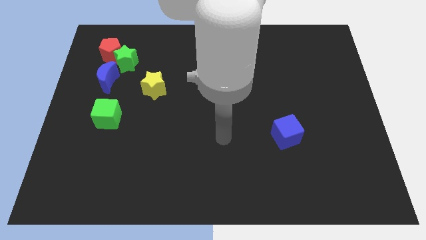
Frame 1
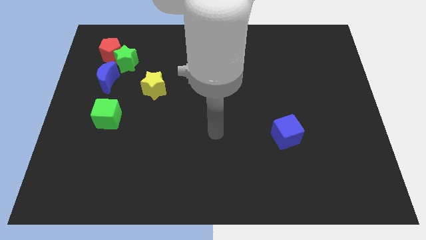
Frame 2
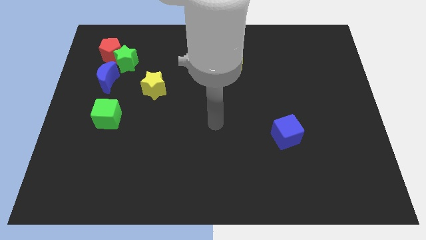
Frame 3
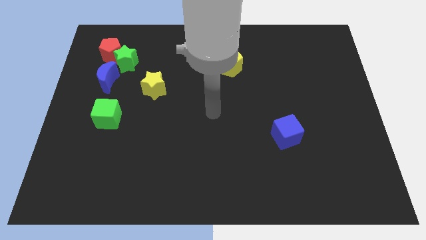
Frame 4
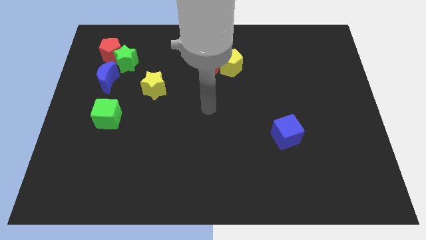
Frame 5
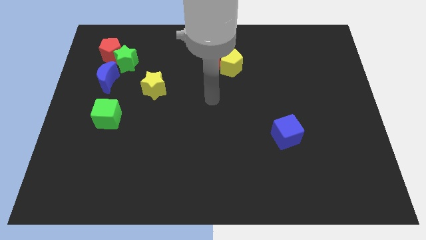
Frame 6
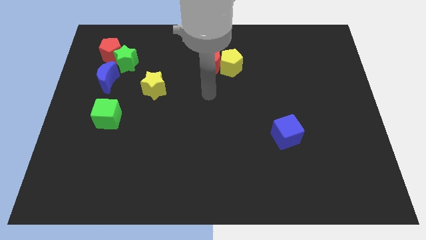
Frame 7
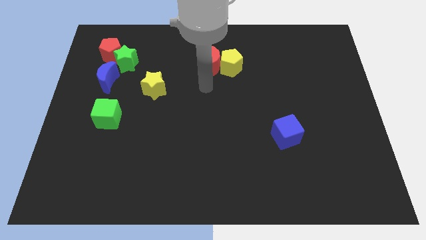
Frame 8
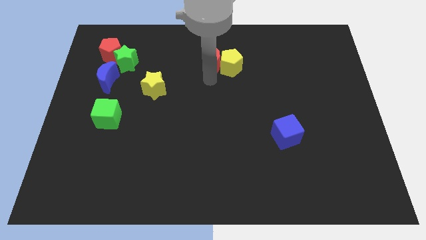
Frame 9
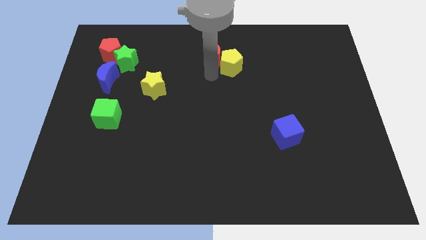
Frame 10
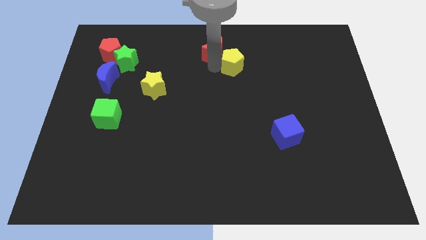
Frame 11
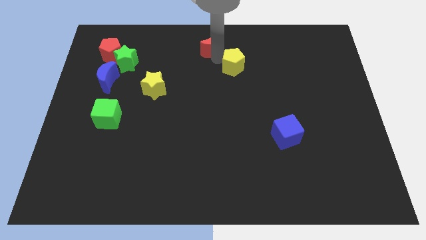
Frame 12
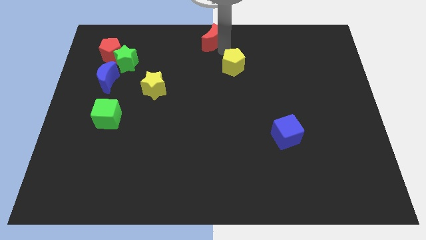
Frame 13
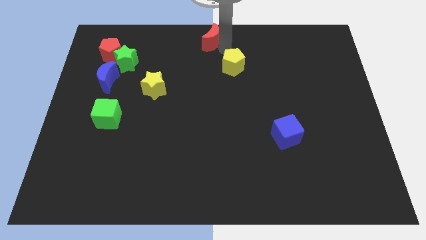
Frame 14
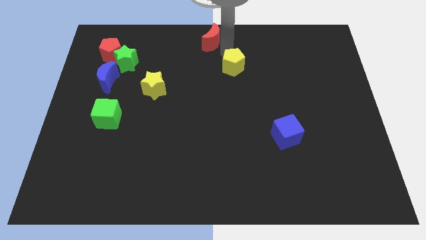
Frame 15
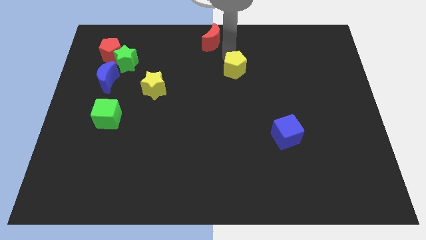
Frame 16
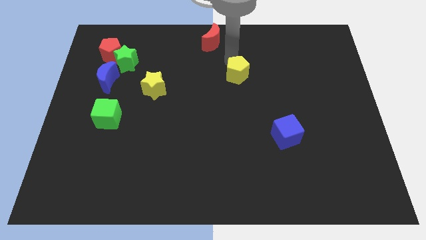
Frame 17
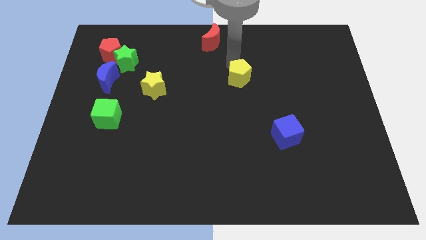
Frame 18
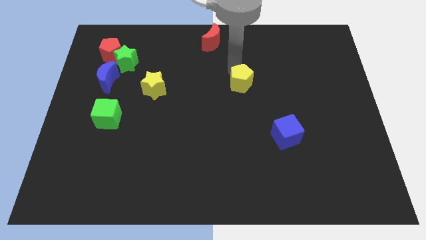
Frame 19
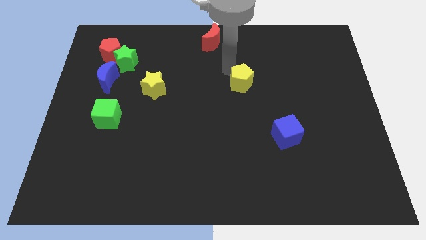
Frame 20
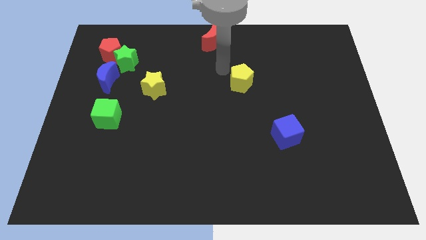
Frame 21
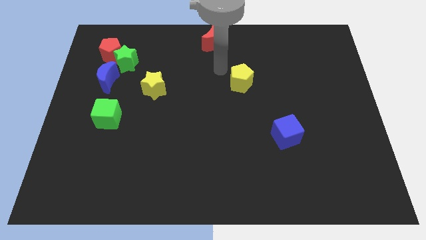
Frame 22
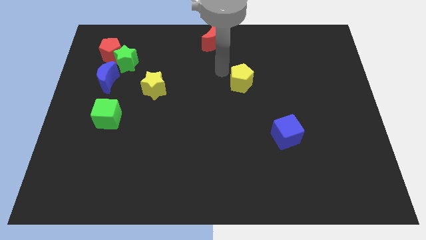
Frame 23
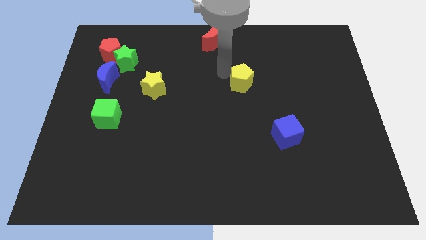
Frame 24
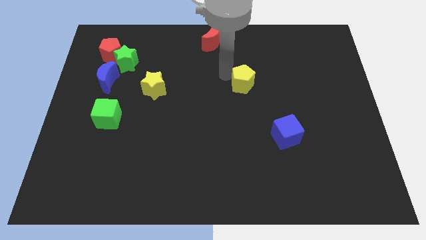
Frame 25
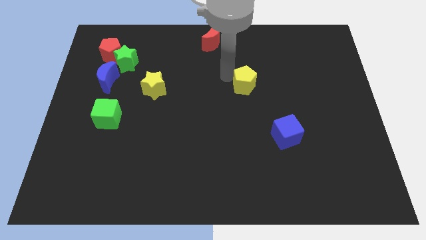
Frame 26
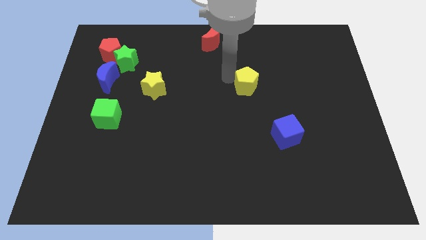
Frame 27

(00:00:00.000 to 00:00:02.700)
slightly move the yellow pentagon down and to the right

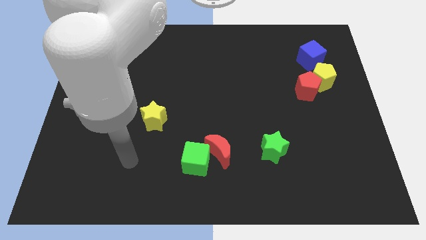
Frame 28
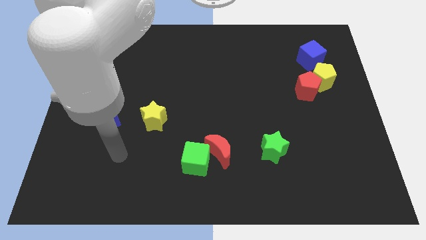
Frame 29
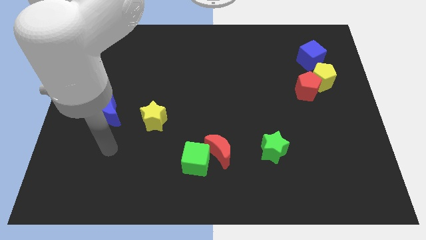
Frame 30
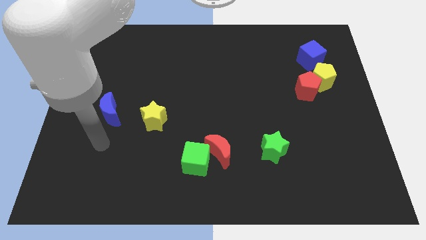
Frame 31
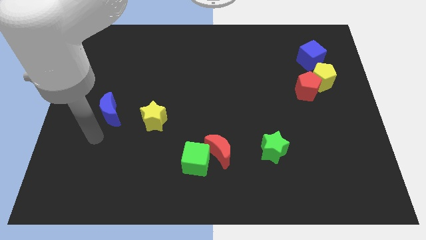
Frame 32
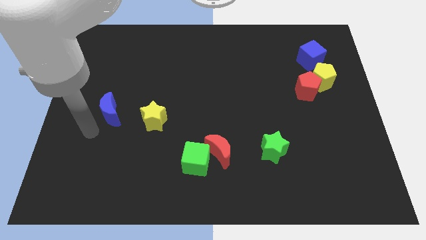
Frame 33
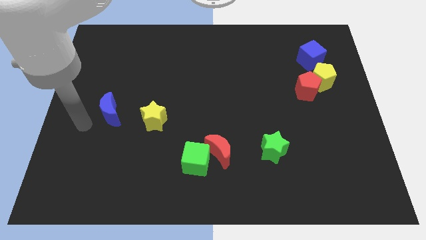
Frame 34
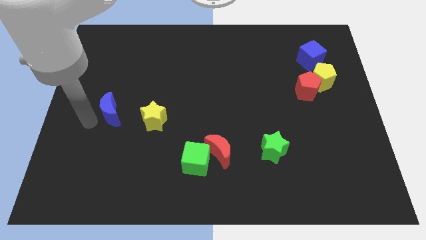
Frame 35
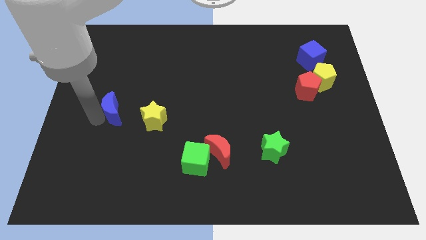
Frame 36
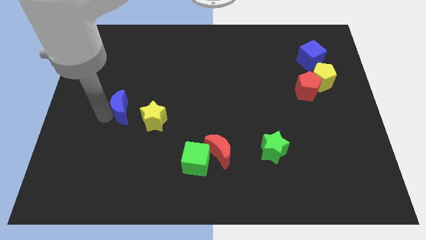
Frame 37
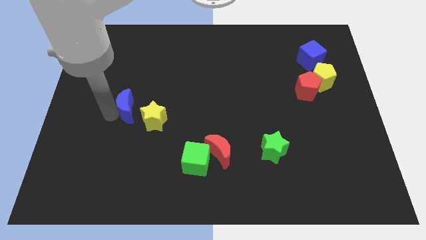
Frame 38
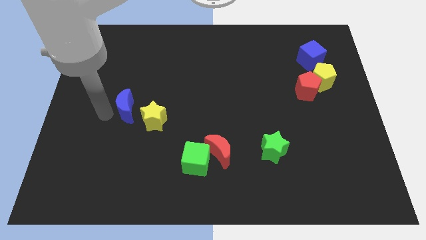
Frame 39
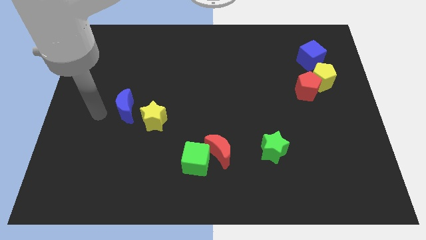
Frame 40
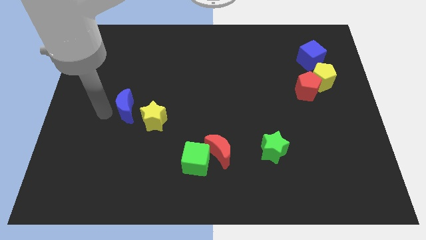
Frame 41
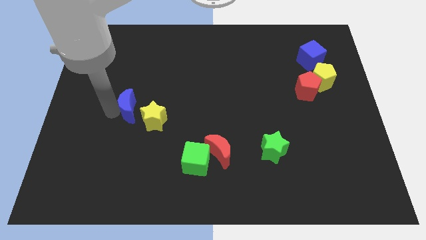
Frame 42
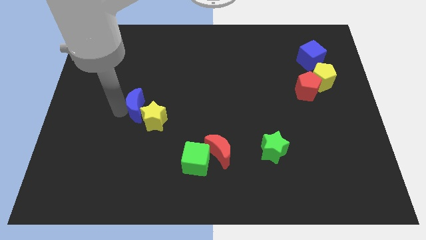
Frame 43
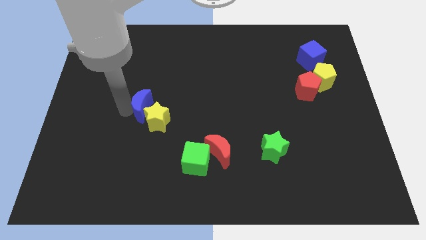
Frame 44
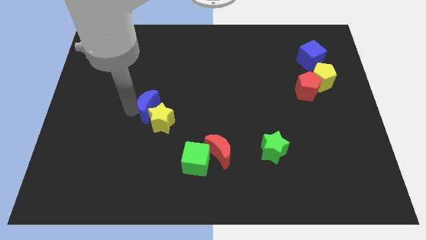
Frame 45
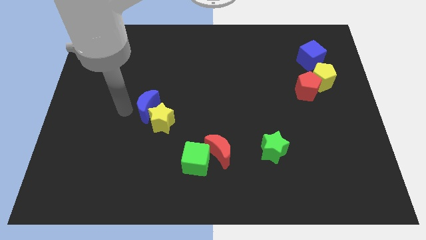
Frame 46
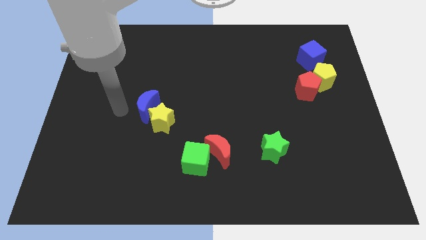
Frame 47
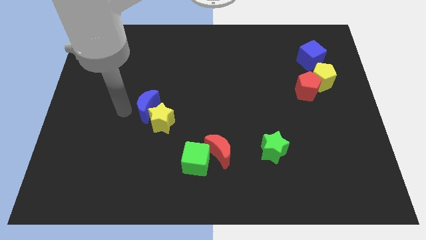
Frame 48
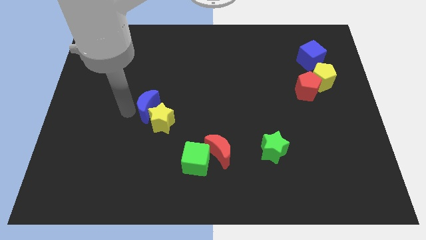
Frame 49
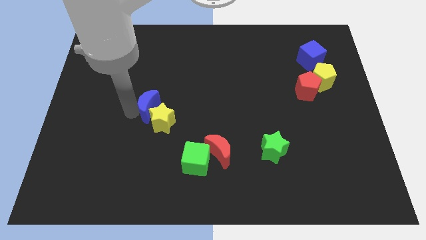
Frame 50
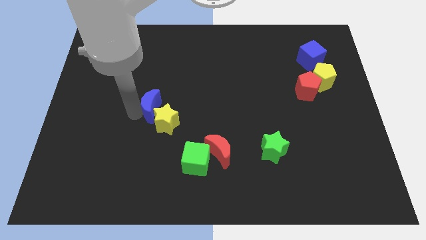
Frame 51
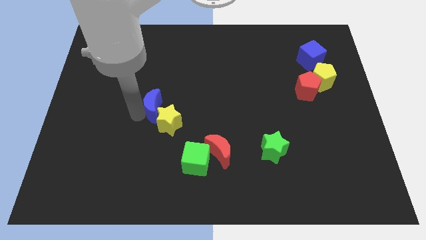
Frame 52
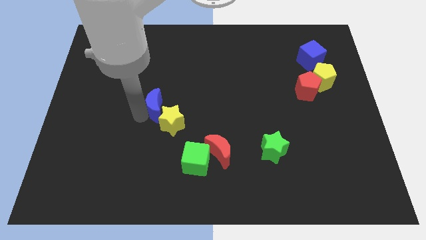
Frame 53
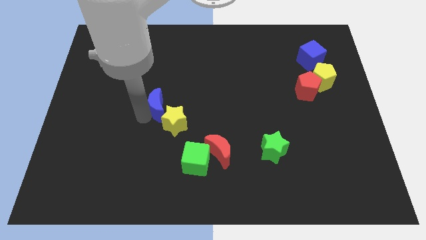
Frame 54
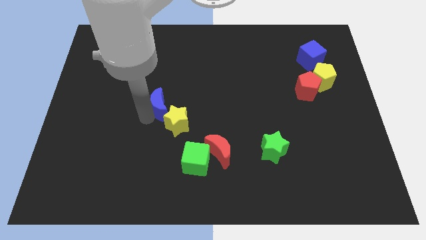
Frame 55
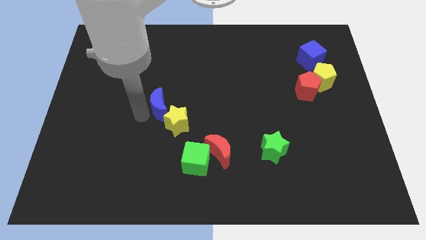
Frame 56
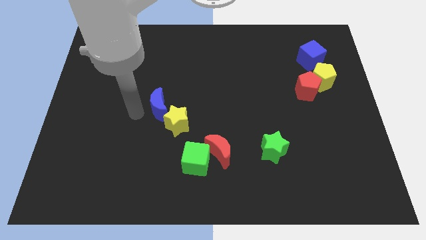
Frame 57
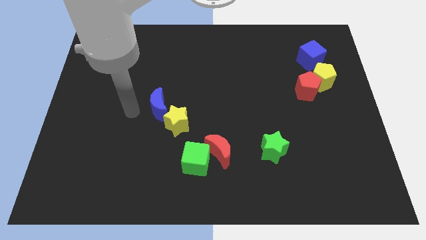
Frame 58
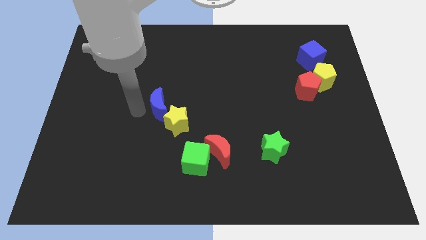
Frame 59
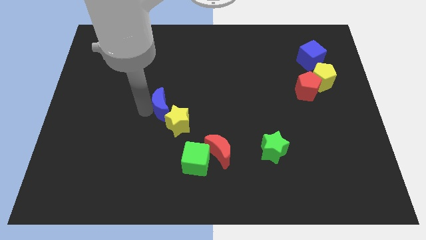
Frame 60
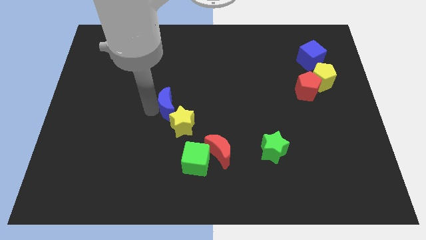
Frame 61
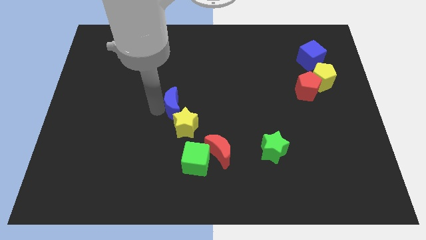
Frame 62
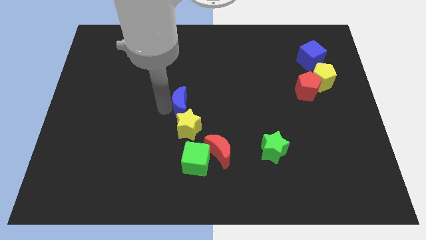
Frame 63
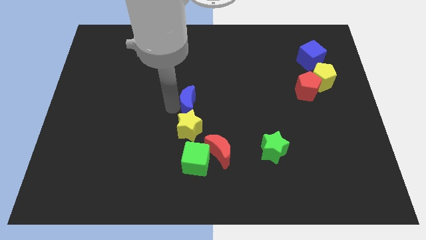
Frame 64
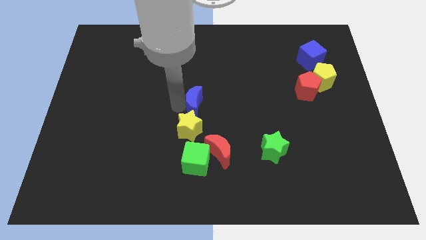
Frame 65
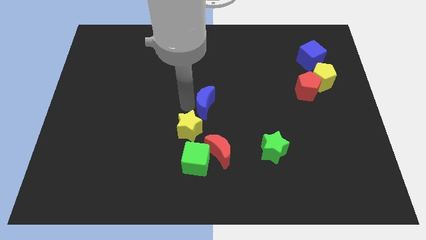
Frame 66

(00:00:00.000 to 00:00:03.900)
move the blue moon right

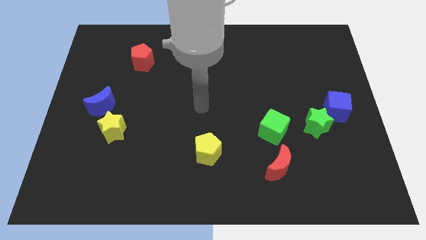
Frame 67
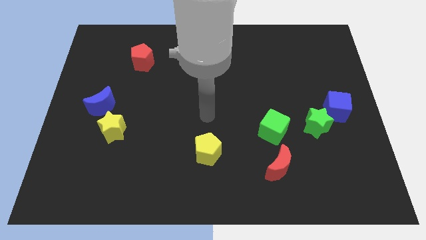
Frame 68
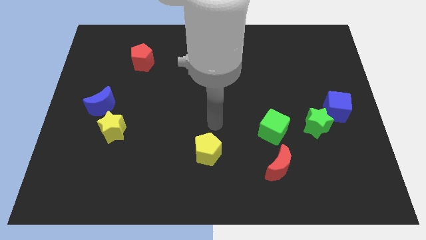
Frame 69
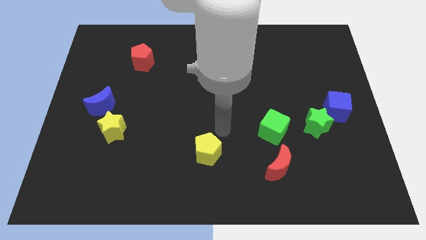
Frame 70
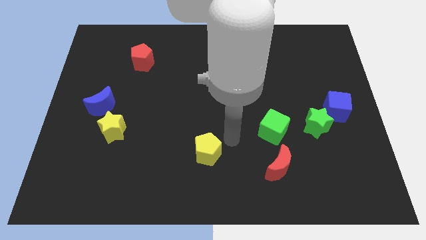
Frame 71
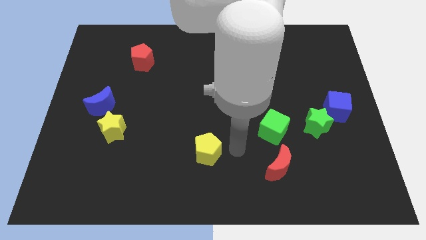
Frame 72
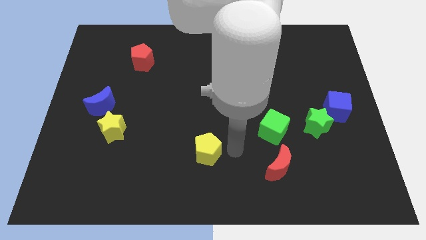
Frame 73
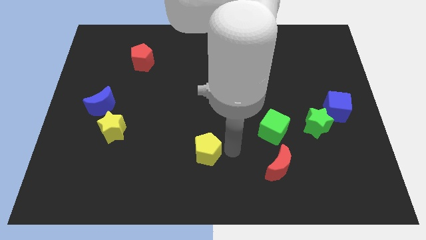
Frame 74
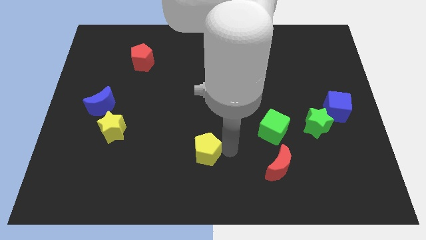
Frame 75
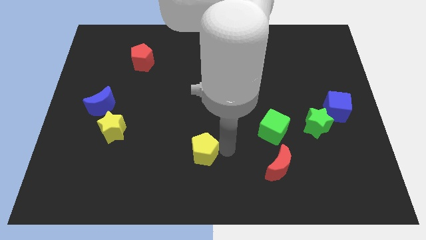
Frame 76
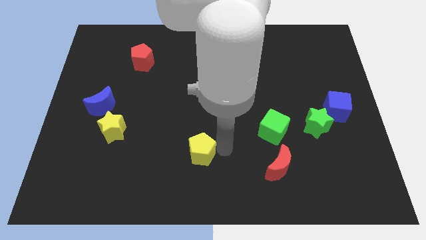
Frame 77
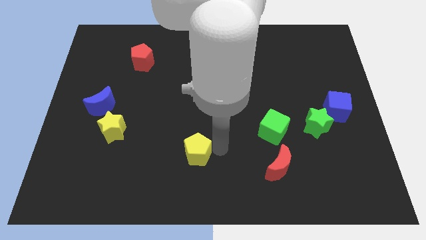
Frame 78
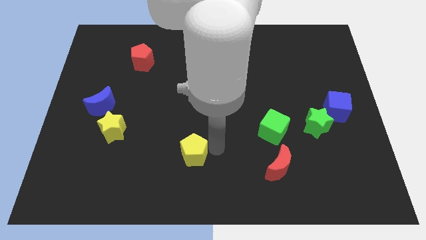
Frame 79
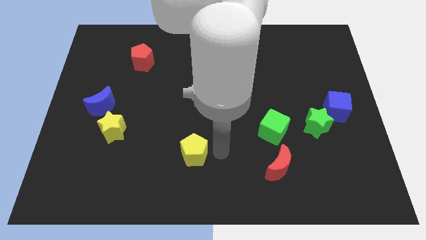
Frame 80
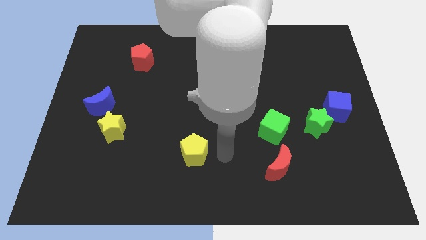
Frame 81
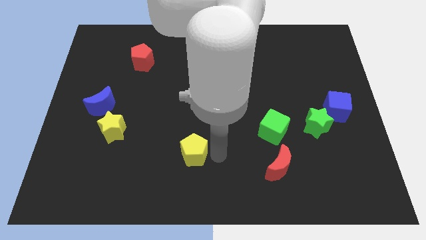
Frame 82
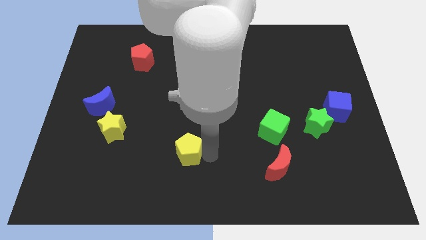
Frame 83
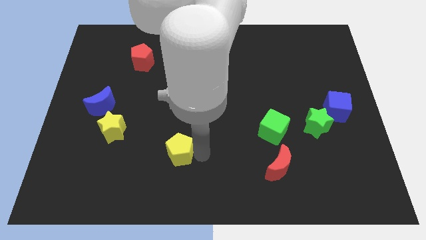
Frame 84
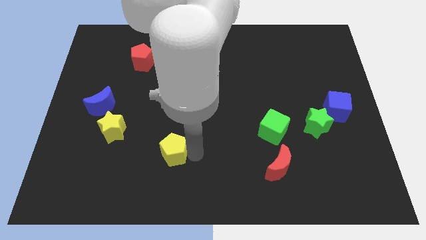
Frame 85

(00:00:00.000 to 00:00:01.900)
slightly push the yellow pentagon left
